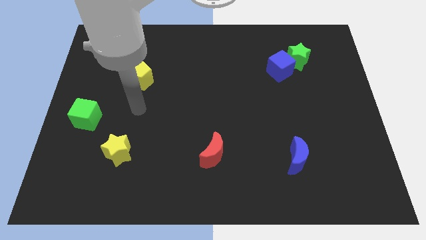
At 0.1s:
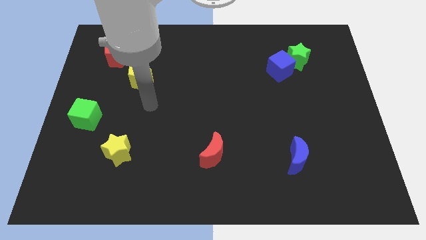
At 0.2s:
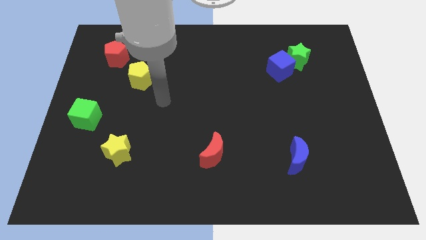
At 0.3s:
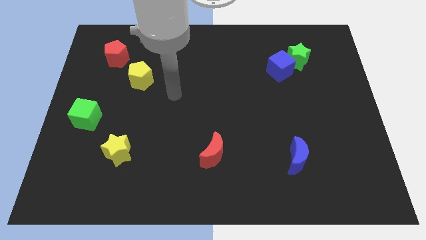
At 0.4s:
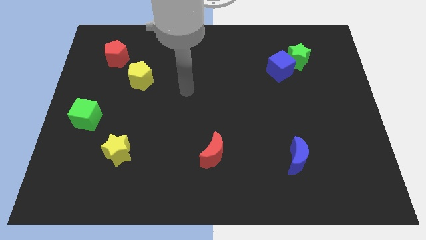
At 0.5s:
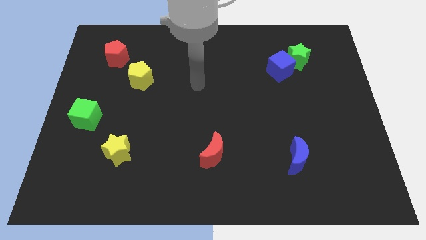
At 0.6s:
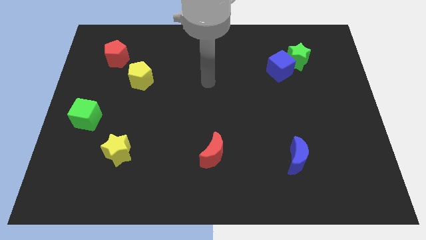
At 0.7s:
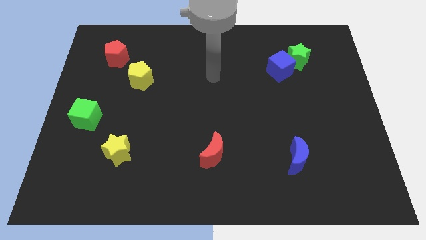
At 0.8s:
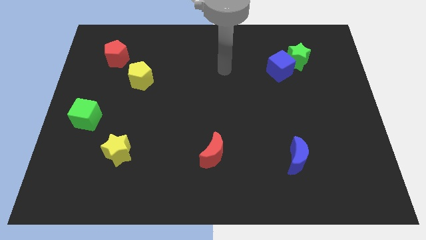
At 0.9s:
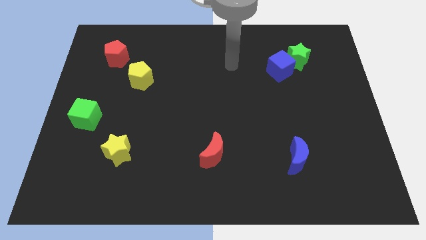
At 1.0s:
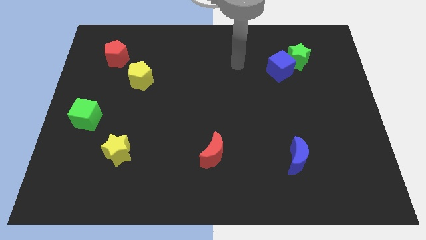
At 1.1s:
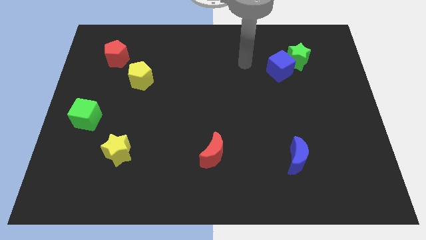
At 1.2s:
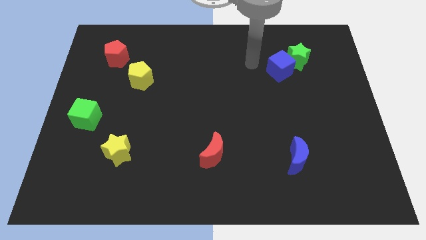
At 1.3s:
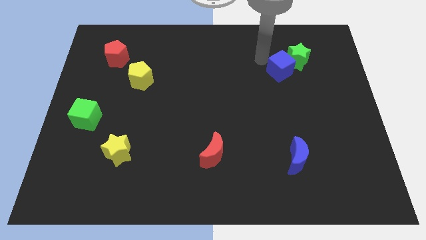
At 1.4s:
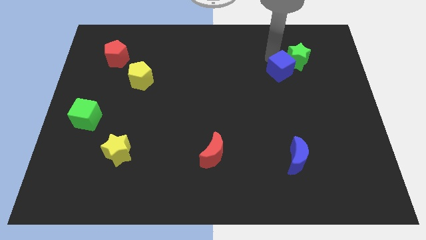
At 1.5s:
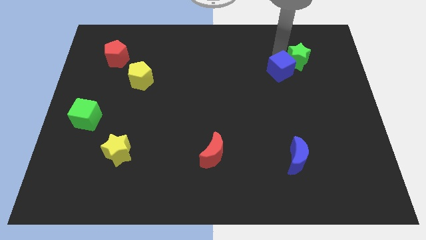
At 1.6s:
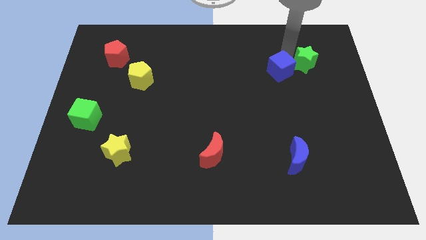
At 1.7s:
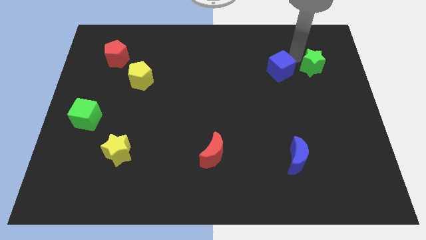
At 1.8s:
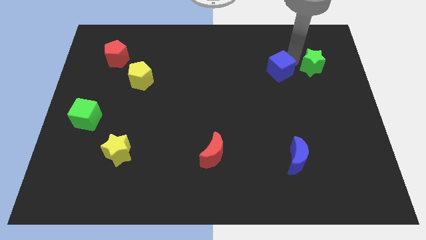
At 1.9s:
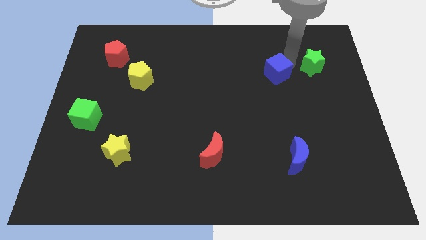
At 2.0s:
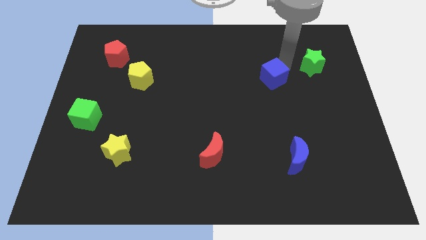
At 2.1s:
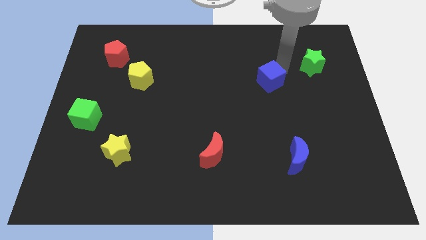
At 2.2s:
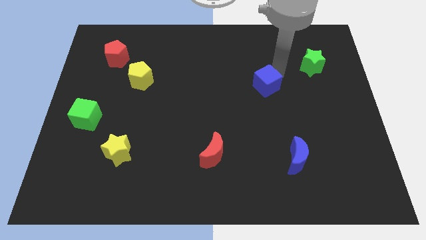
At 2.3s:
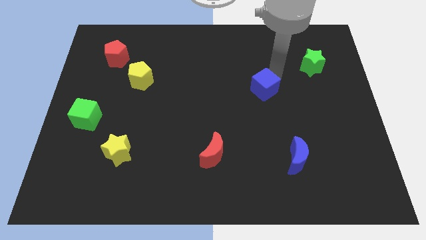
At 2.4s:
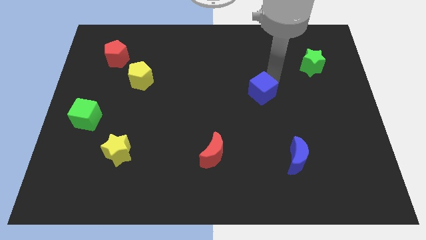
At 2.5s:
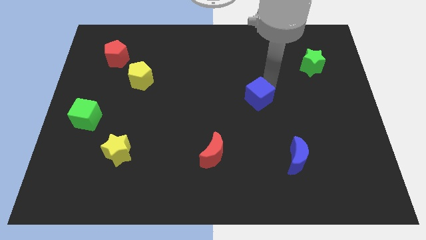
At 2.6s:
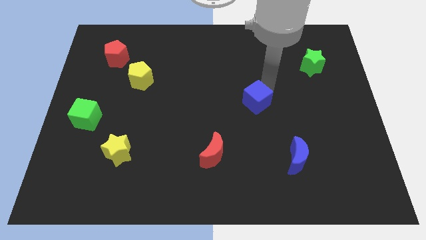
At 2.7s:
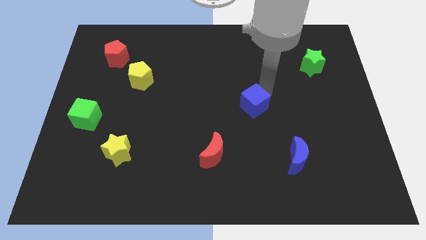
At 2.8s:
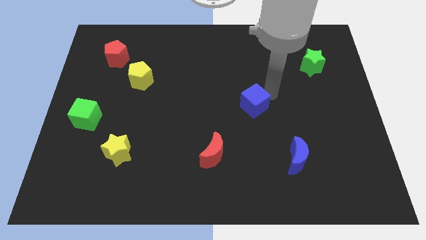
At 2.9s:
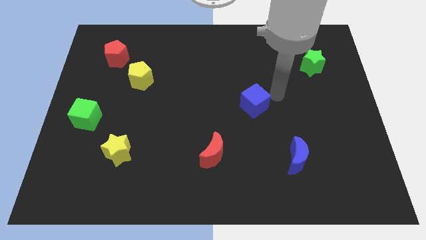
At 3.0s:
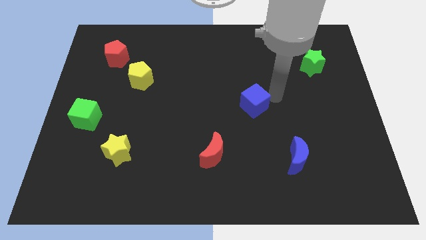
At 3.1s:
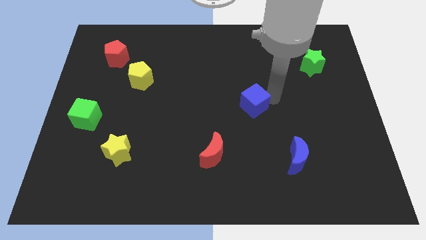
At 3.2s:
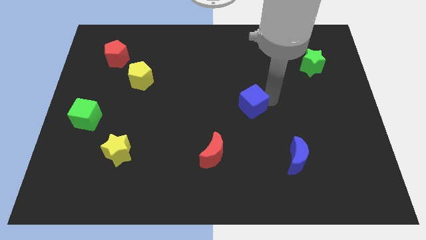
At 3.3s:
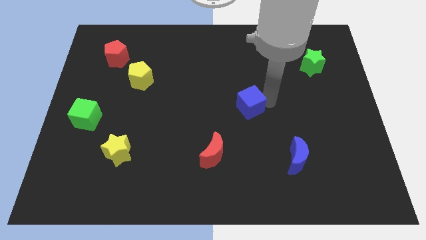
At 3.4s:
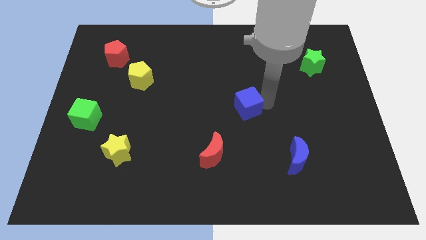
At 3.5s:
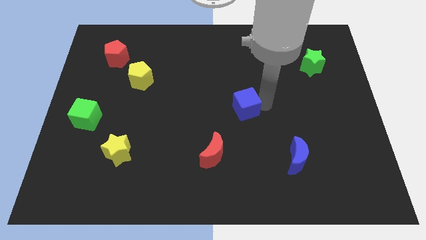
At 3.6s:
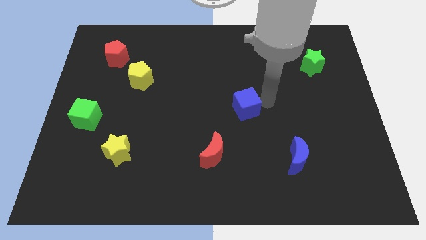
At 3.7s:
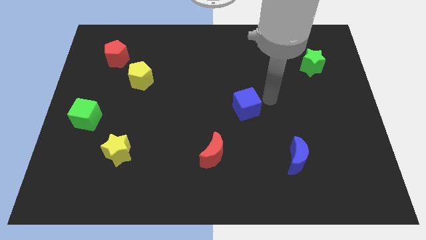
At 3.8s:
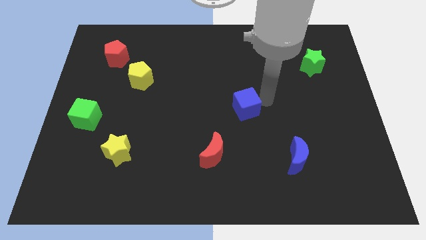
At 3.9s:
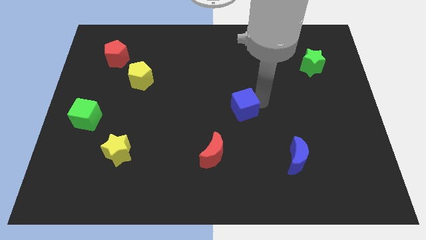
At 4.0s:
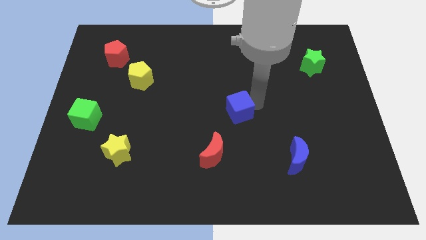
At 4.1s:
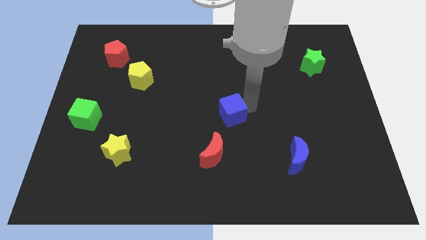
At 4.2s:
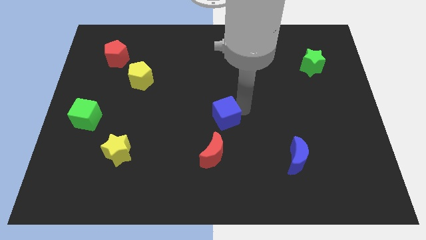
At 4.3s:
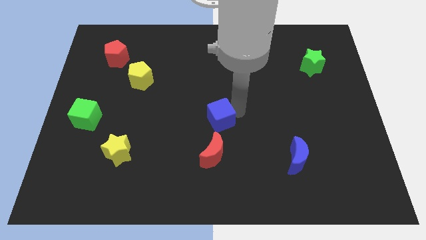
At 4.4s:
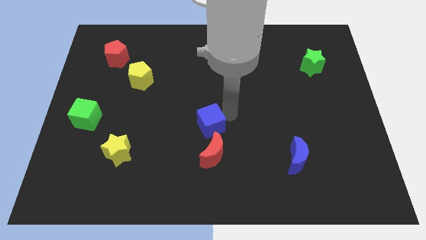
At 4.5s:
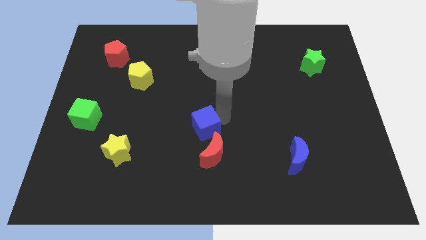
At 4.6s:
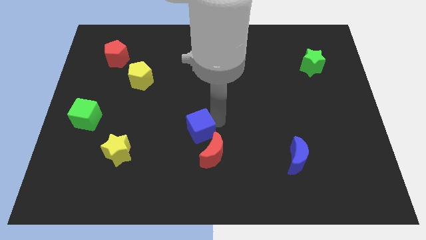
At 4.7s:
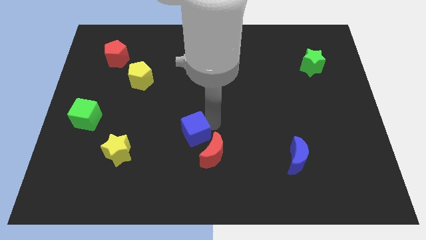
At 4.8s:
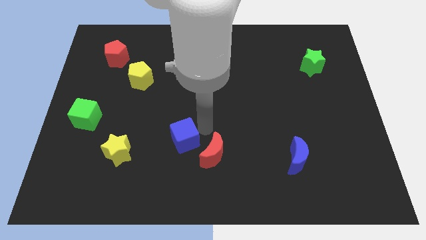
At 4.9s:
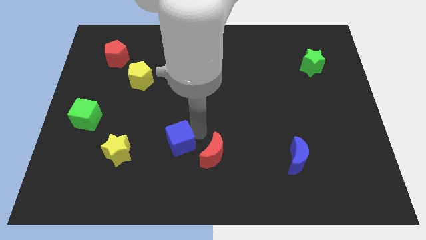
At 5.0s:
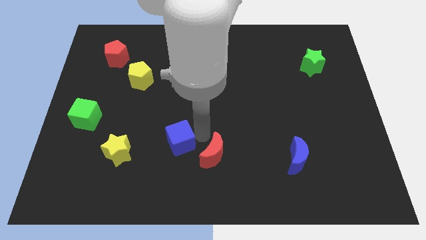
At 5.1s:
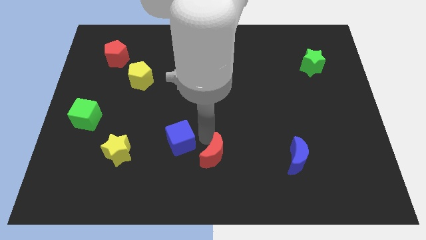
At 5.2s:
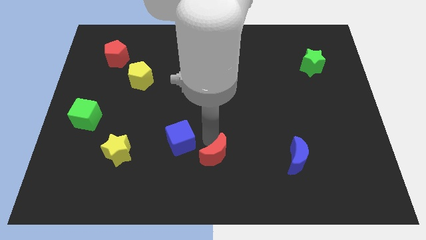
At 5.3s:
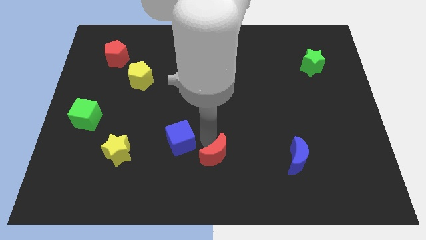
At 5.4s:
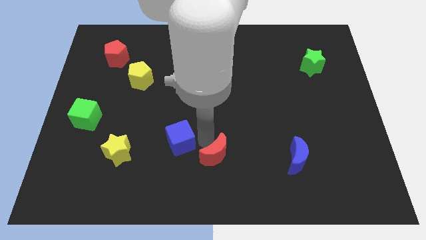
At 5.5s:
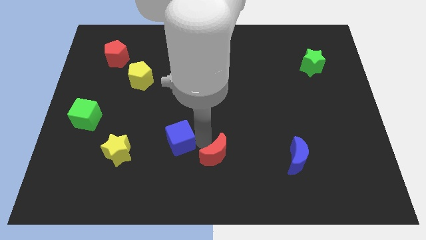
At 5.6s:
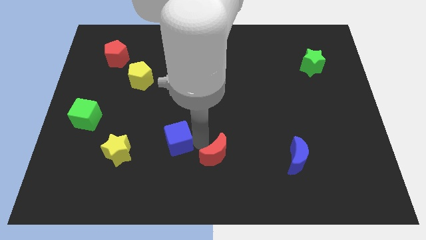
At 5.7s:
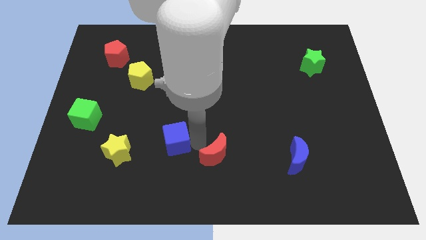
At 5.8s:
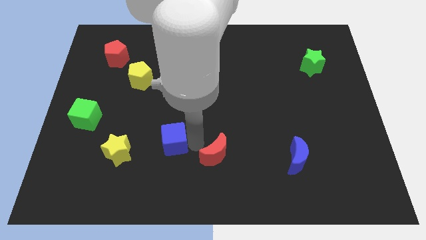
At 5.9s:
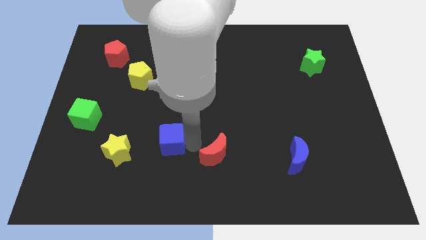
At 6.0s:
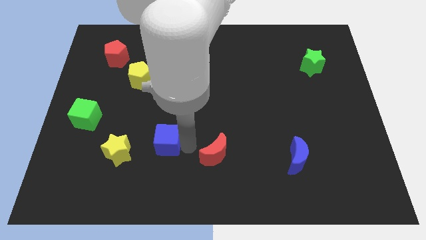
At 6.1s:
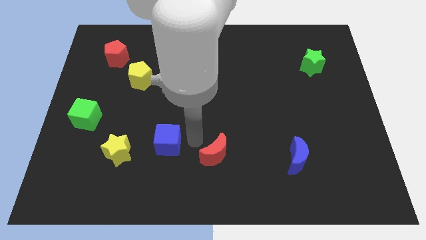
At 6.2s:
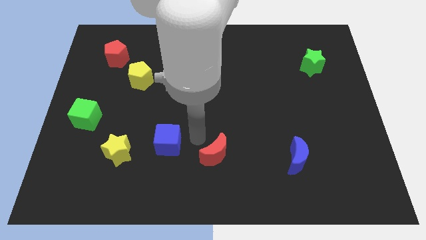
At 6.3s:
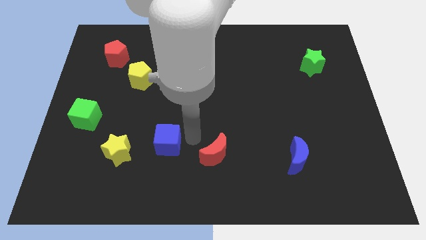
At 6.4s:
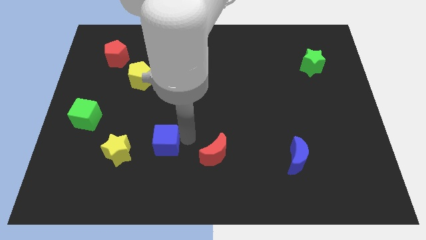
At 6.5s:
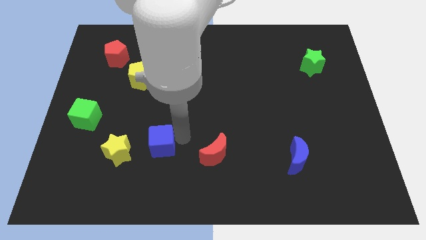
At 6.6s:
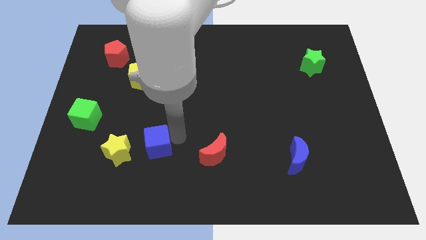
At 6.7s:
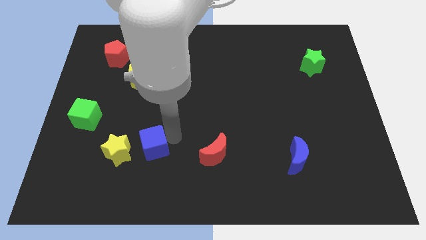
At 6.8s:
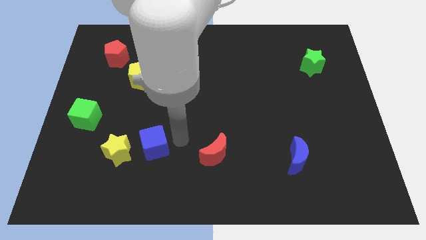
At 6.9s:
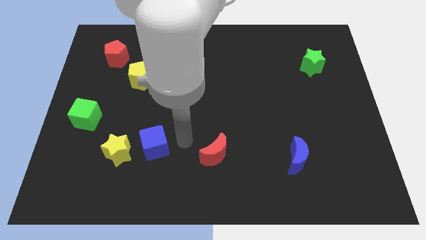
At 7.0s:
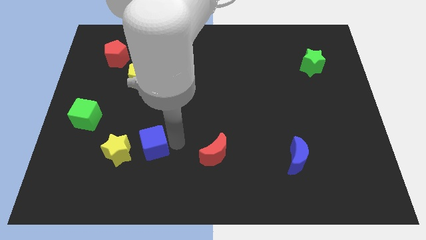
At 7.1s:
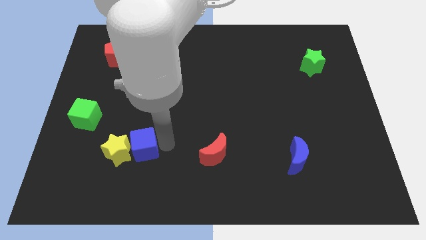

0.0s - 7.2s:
push the blue cube towards the yellow star
